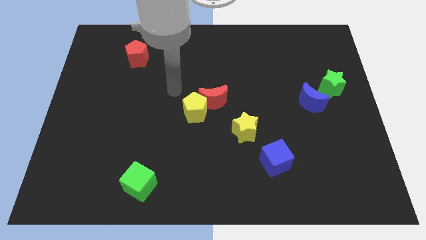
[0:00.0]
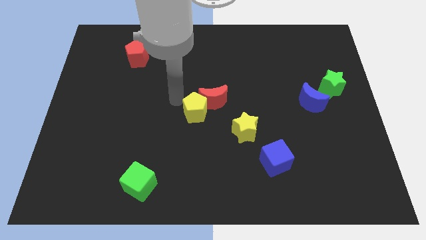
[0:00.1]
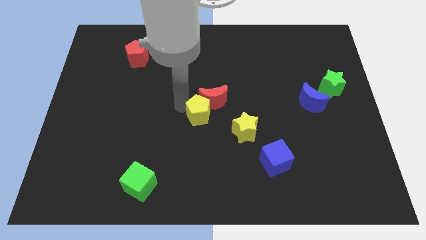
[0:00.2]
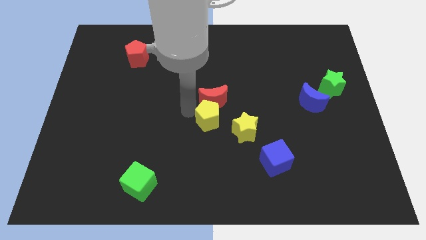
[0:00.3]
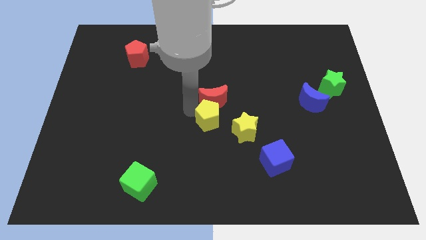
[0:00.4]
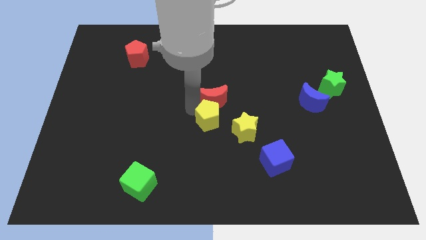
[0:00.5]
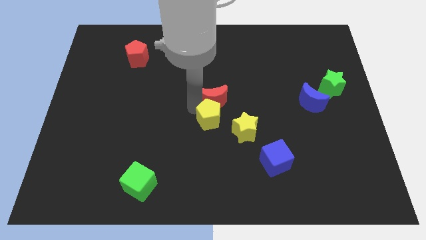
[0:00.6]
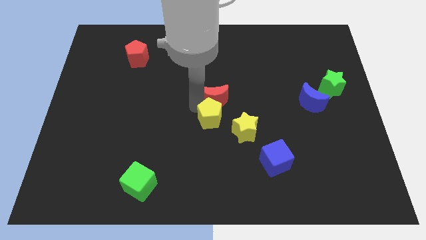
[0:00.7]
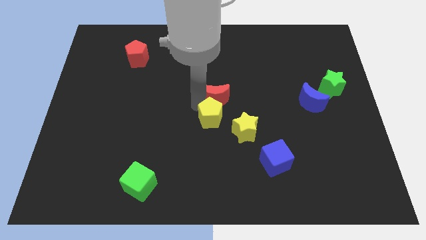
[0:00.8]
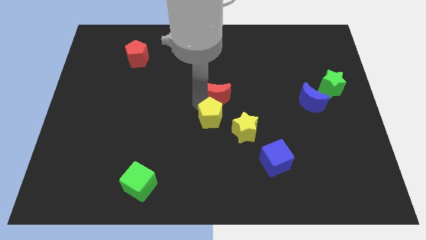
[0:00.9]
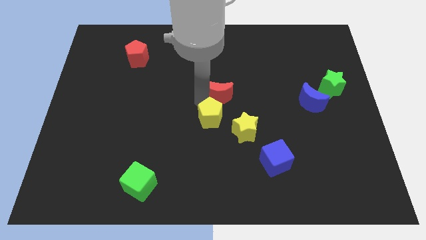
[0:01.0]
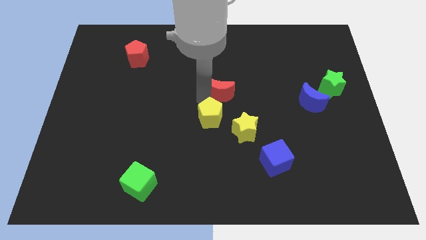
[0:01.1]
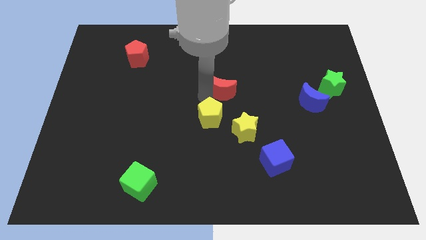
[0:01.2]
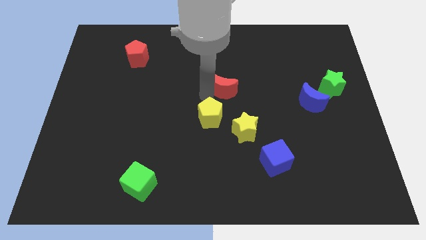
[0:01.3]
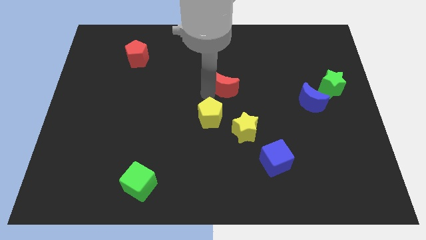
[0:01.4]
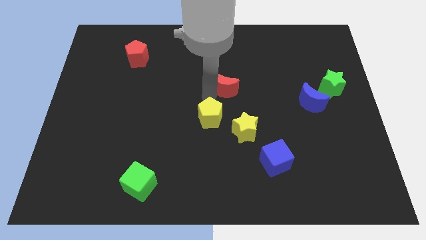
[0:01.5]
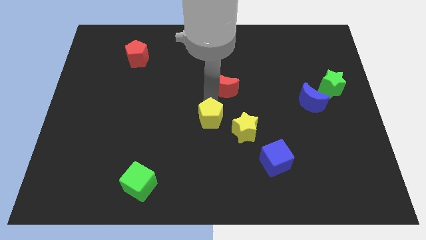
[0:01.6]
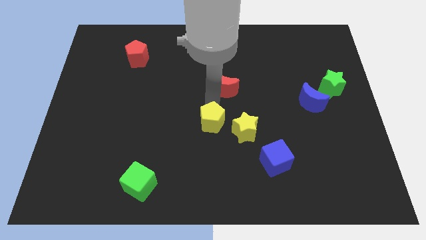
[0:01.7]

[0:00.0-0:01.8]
separate the red moon from the yellow pentagon

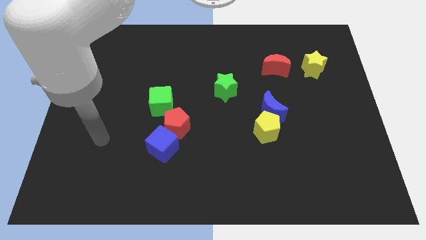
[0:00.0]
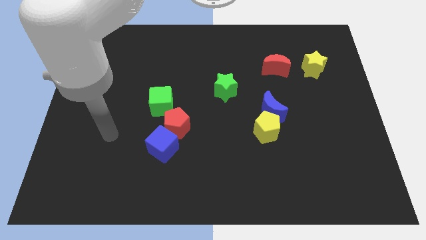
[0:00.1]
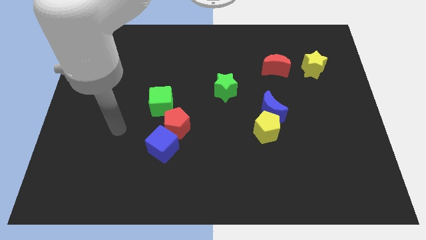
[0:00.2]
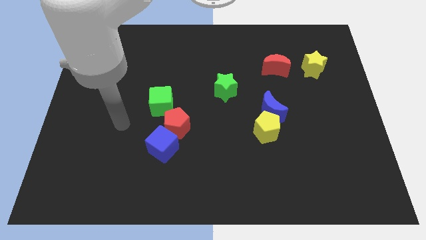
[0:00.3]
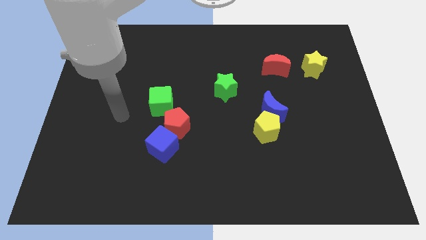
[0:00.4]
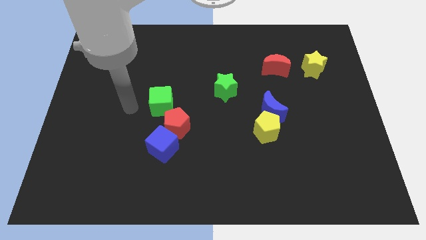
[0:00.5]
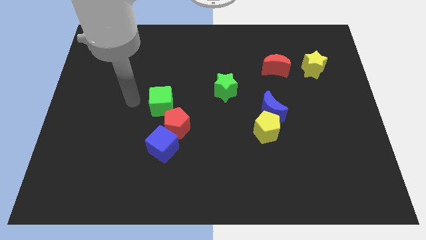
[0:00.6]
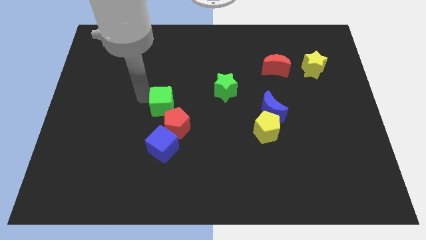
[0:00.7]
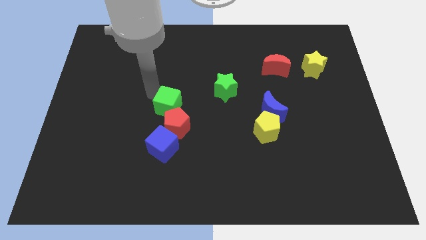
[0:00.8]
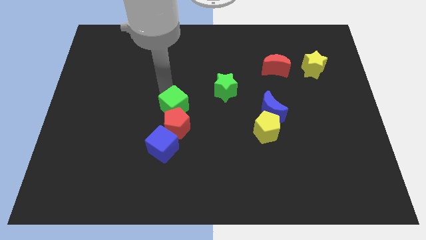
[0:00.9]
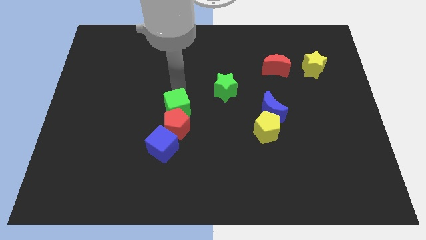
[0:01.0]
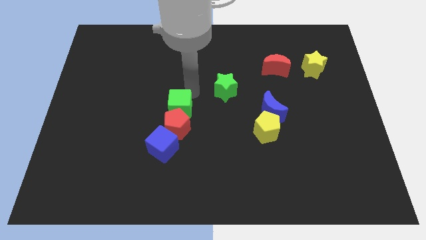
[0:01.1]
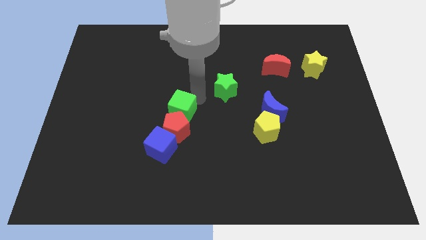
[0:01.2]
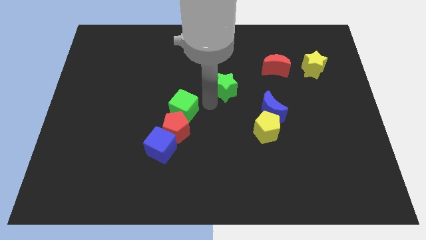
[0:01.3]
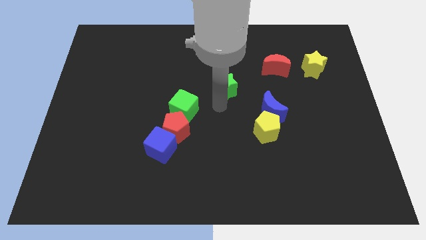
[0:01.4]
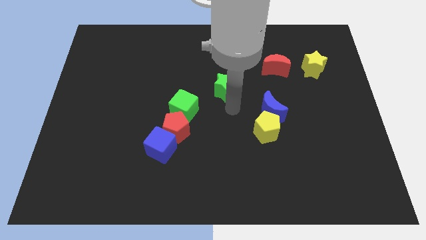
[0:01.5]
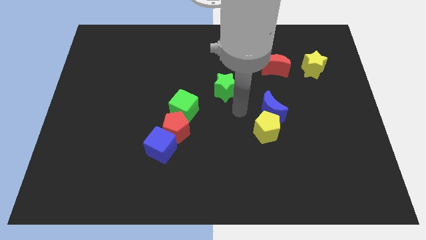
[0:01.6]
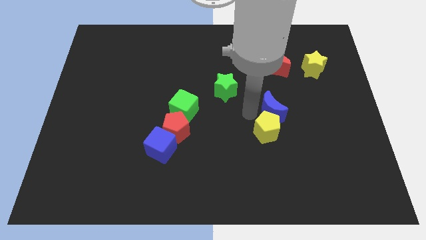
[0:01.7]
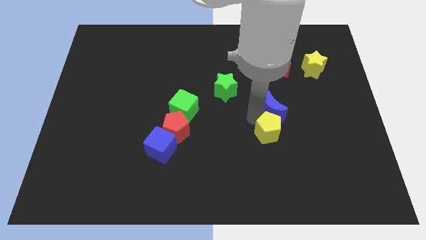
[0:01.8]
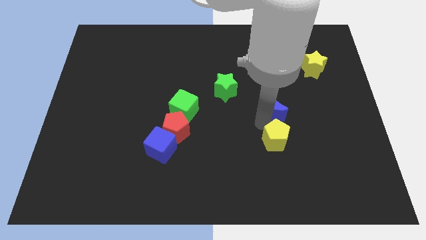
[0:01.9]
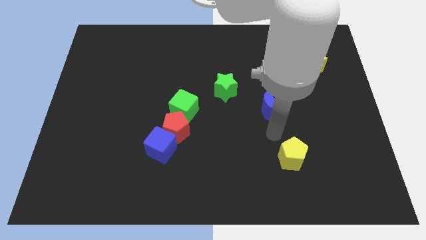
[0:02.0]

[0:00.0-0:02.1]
pull the blue moon apart from the yellow pentagon

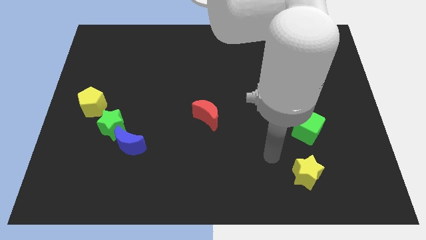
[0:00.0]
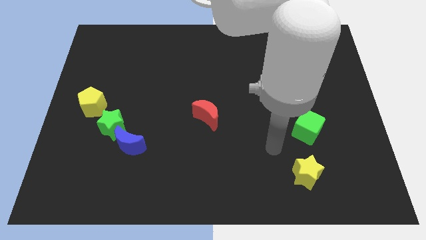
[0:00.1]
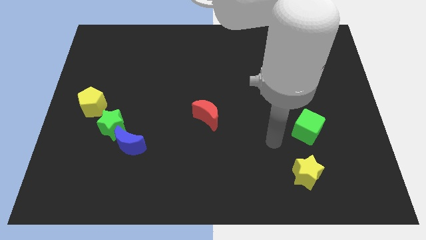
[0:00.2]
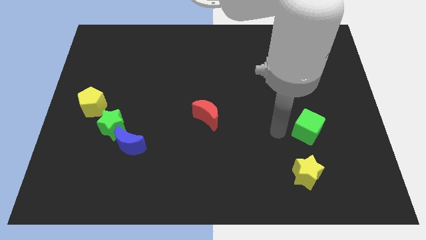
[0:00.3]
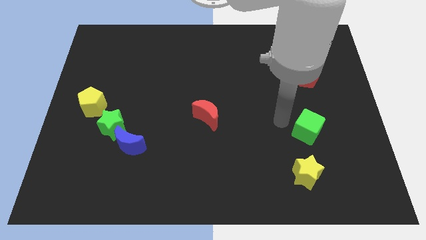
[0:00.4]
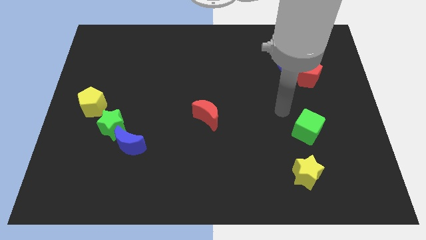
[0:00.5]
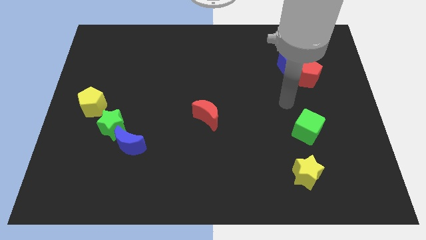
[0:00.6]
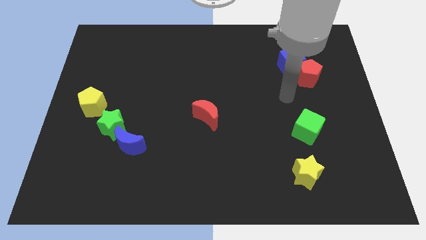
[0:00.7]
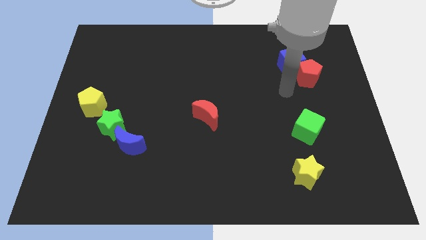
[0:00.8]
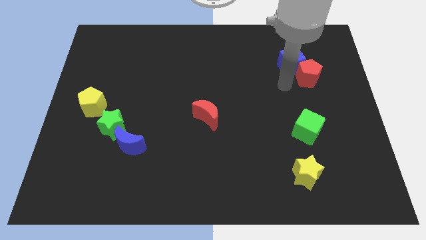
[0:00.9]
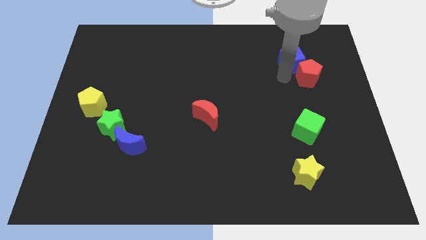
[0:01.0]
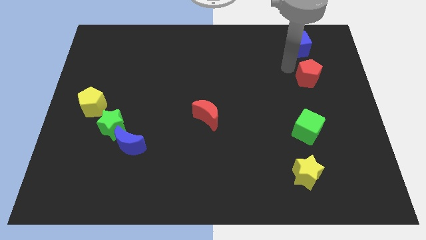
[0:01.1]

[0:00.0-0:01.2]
move the red pentagon away from the blue cube

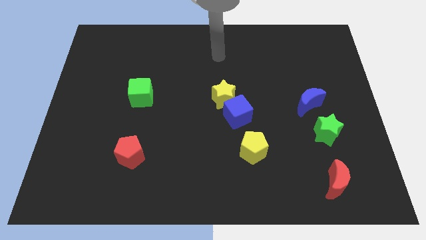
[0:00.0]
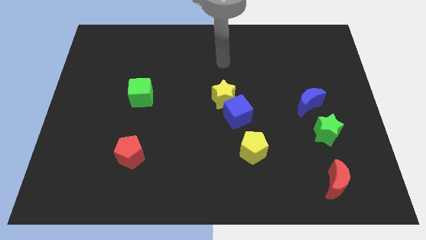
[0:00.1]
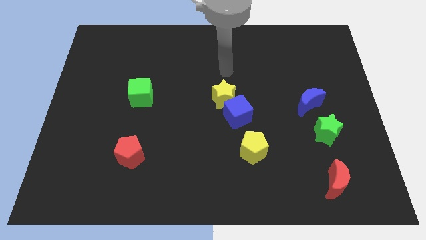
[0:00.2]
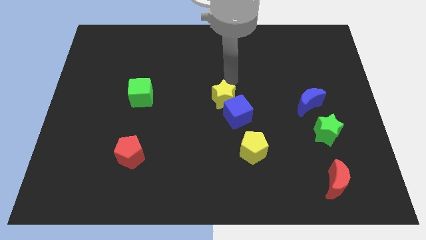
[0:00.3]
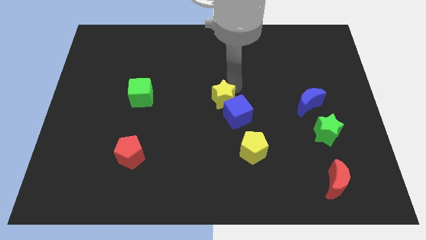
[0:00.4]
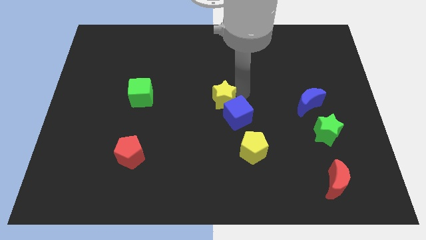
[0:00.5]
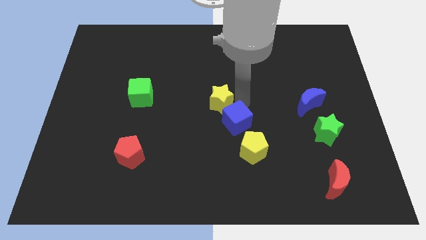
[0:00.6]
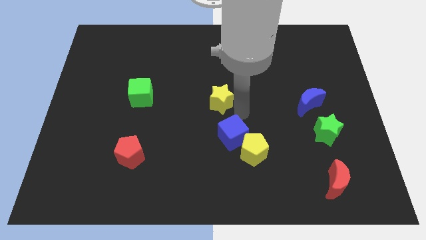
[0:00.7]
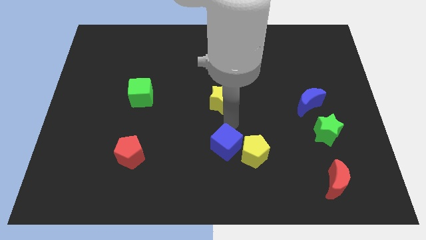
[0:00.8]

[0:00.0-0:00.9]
pull the yellow star apart from the blue cube

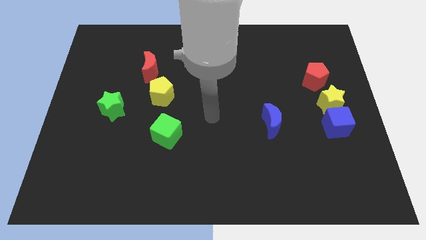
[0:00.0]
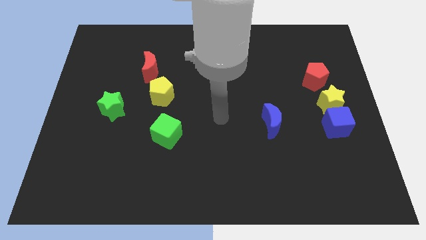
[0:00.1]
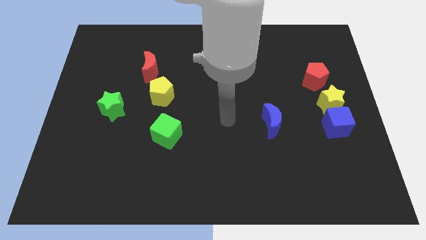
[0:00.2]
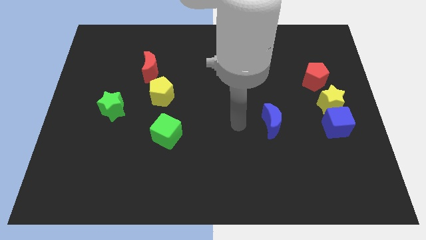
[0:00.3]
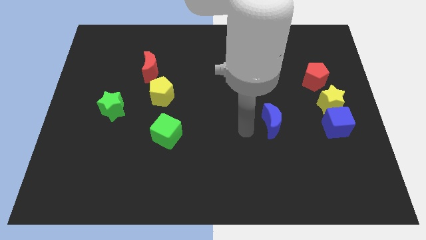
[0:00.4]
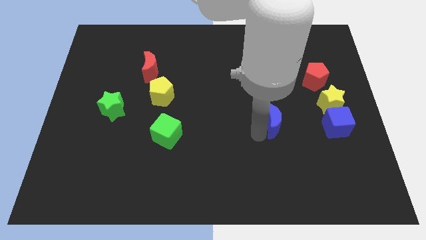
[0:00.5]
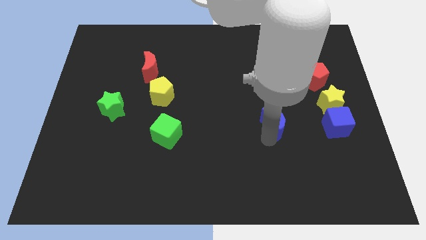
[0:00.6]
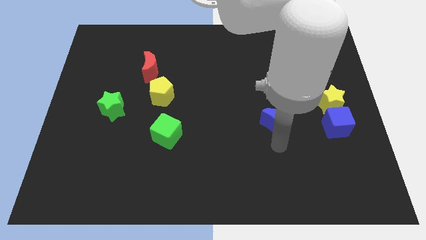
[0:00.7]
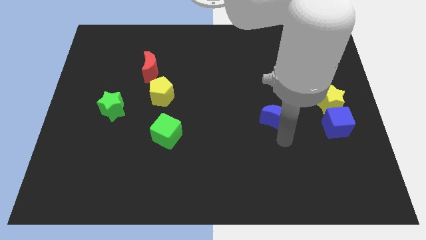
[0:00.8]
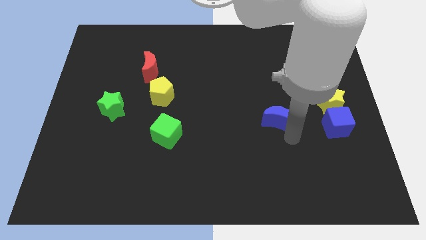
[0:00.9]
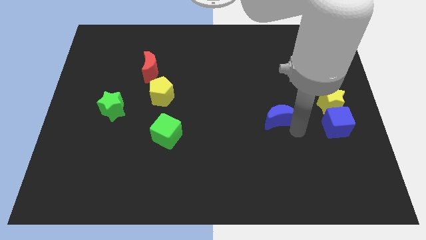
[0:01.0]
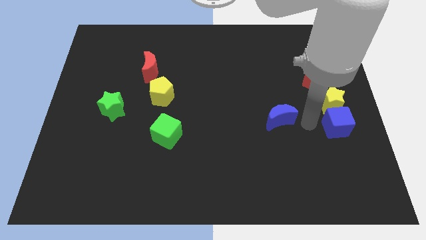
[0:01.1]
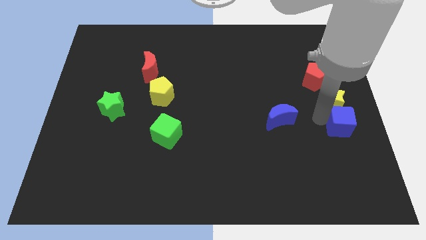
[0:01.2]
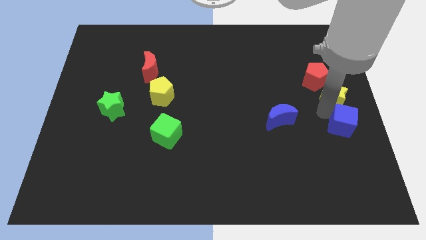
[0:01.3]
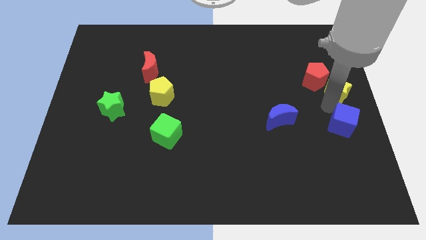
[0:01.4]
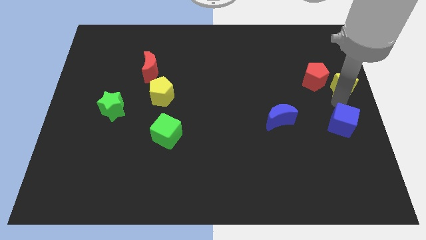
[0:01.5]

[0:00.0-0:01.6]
pull the blue cube apart from the yellow star

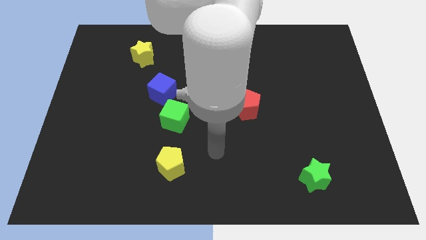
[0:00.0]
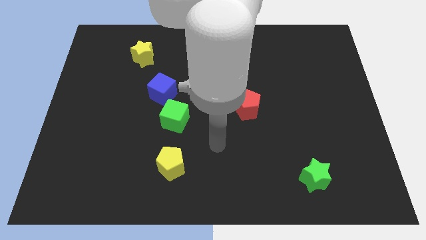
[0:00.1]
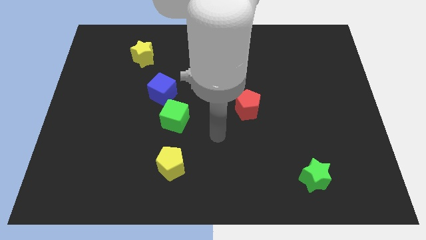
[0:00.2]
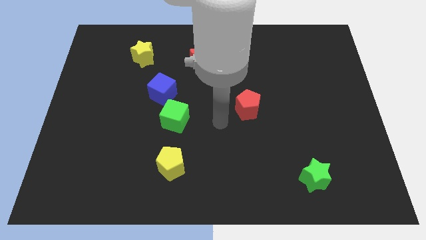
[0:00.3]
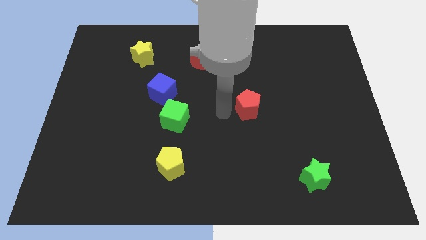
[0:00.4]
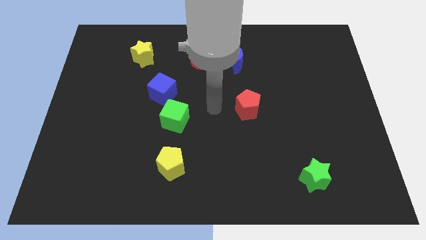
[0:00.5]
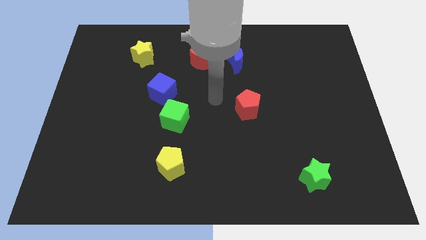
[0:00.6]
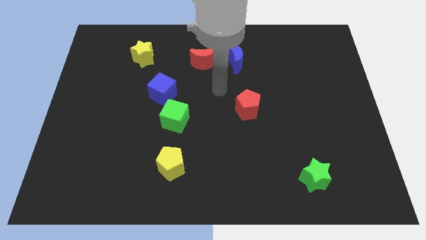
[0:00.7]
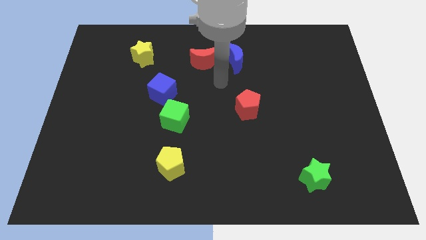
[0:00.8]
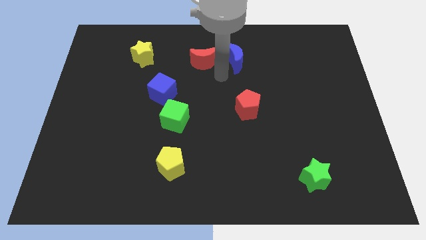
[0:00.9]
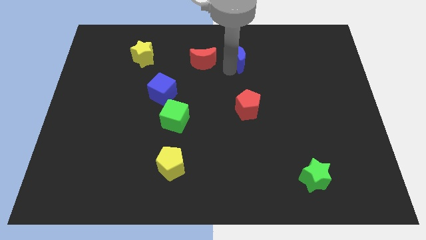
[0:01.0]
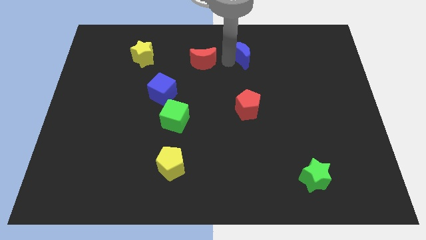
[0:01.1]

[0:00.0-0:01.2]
separate the red moon from the blue moon

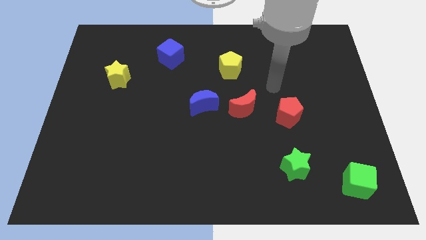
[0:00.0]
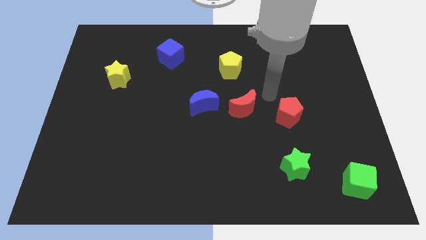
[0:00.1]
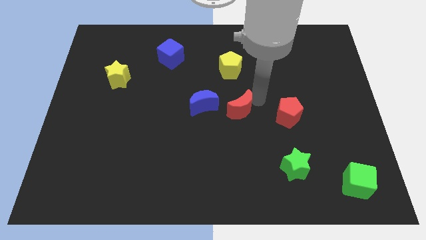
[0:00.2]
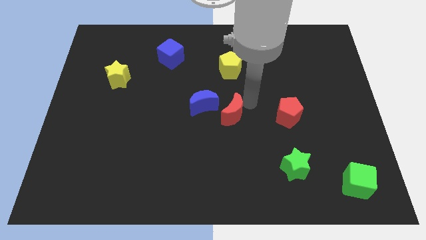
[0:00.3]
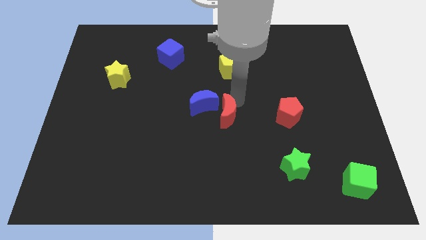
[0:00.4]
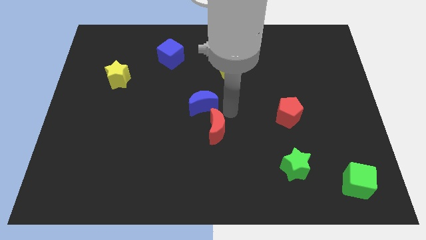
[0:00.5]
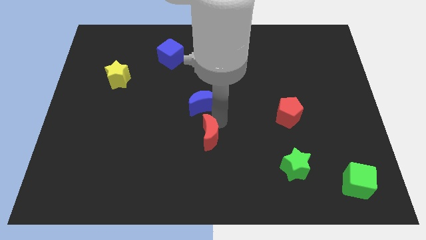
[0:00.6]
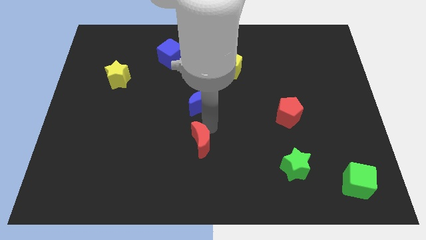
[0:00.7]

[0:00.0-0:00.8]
separate the blue moon from the red moon
